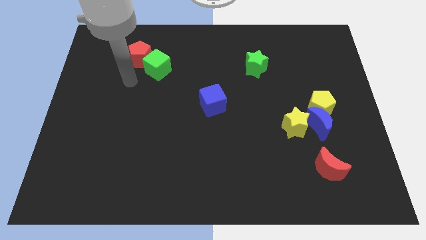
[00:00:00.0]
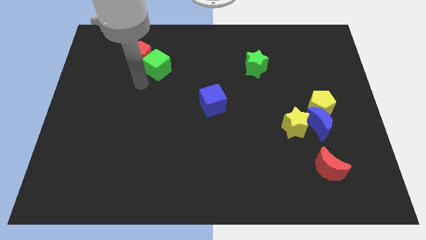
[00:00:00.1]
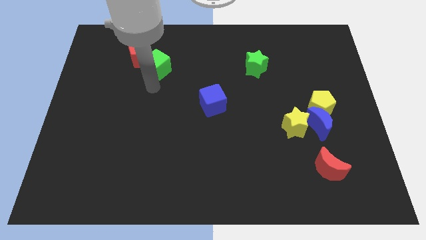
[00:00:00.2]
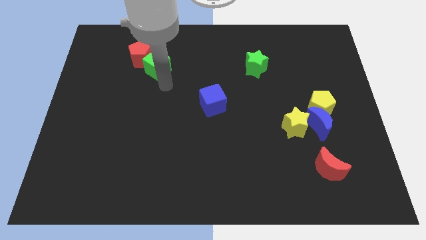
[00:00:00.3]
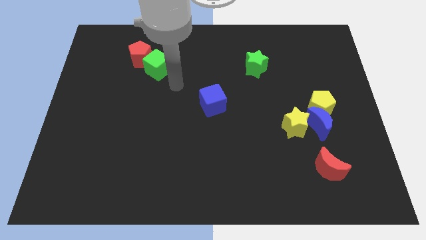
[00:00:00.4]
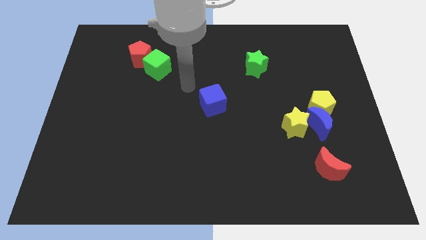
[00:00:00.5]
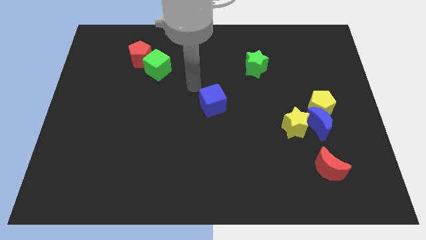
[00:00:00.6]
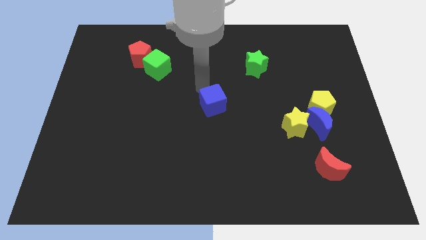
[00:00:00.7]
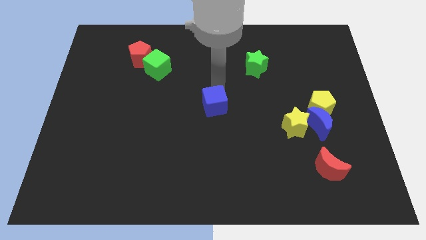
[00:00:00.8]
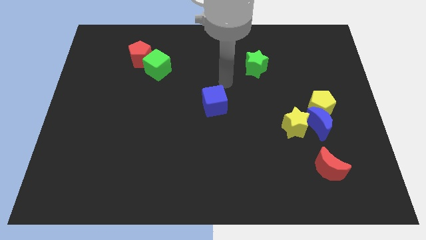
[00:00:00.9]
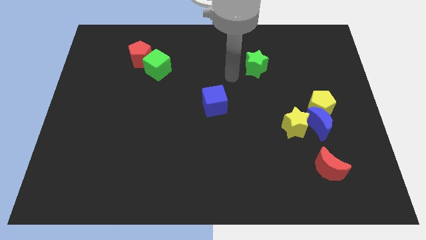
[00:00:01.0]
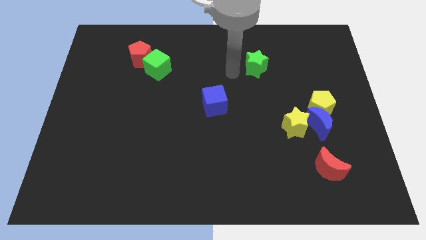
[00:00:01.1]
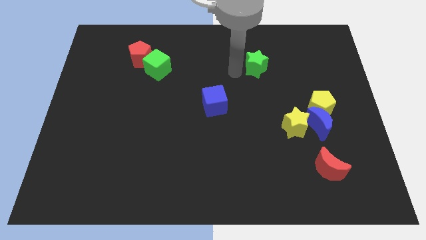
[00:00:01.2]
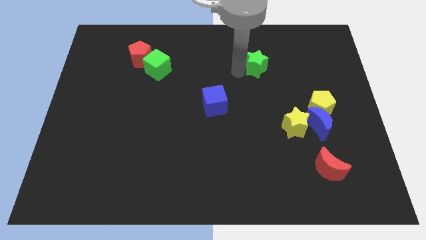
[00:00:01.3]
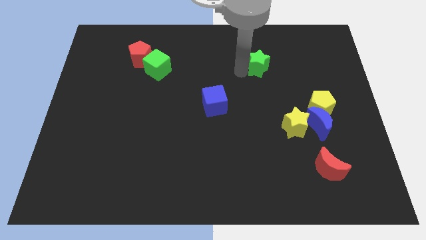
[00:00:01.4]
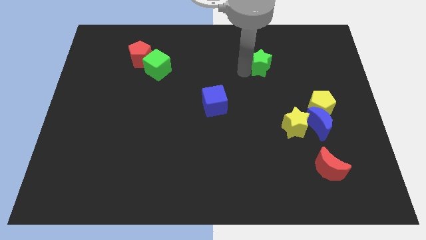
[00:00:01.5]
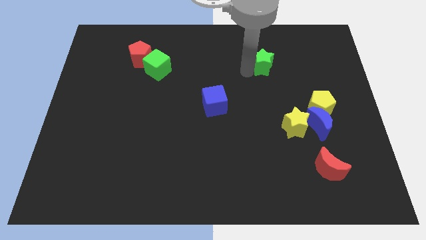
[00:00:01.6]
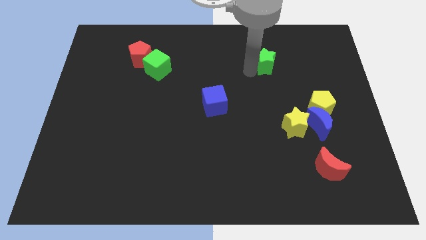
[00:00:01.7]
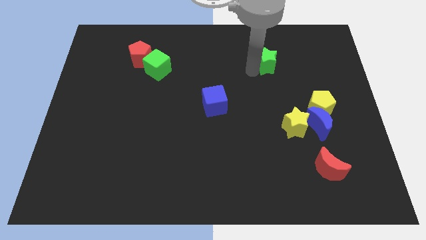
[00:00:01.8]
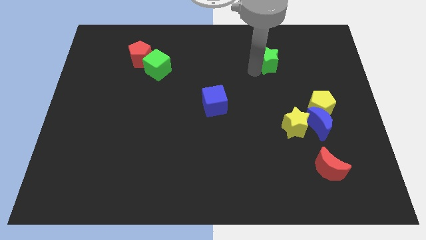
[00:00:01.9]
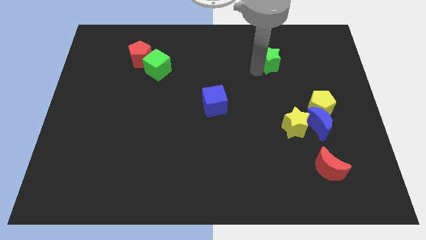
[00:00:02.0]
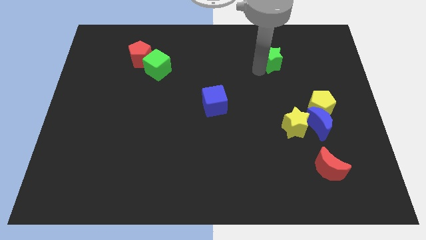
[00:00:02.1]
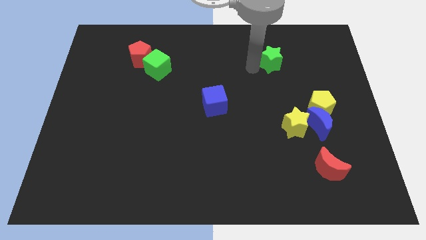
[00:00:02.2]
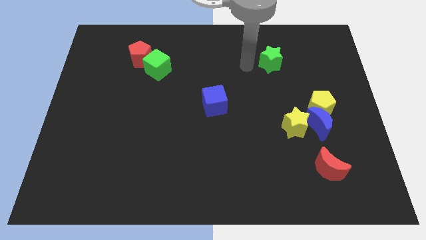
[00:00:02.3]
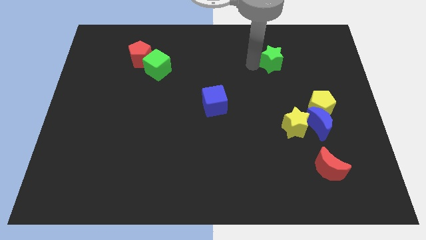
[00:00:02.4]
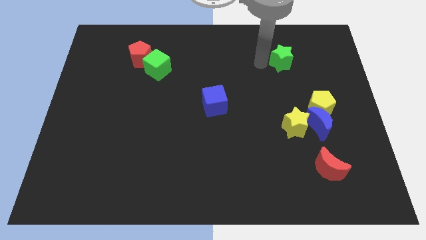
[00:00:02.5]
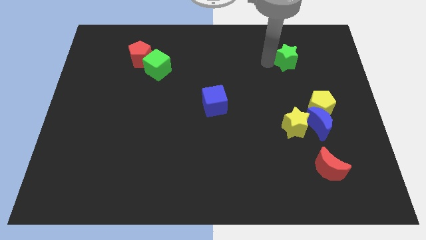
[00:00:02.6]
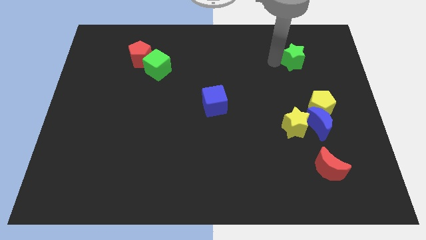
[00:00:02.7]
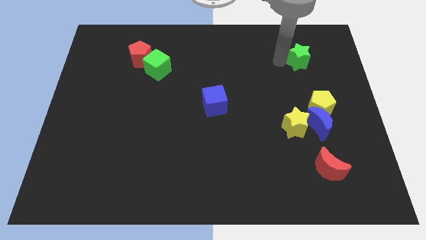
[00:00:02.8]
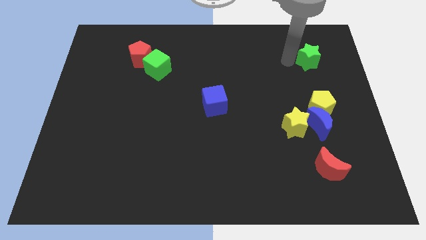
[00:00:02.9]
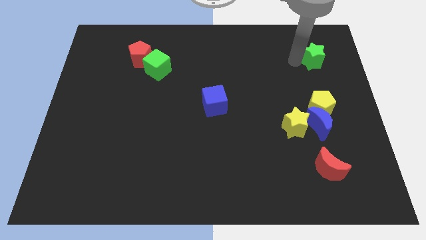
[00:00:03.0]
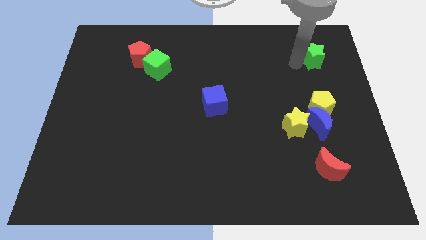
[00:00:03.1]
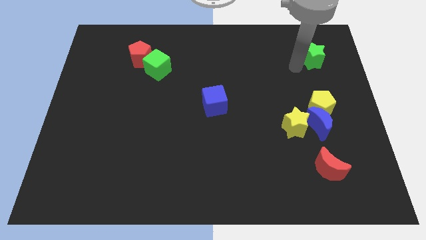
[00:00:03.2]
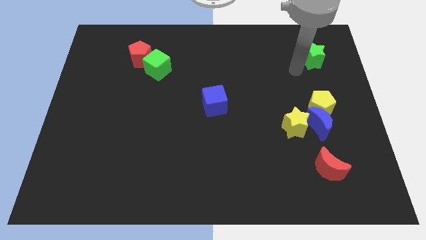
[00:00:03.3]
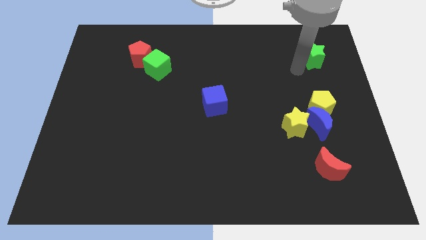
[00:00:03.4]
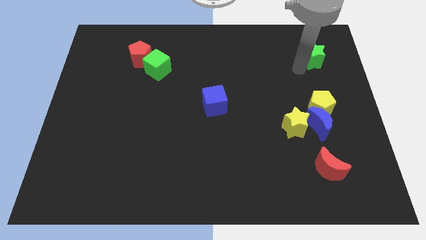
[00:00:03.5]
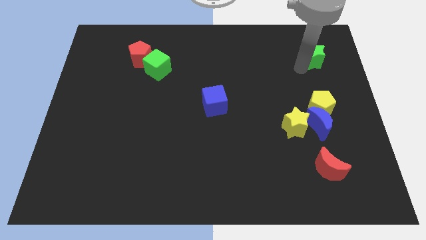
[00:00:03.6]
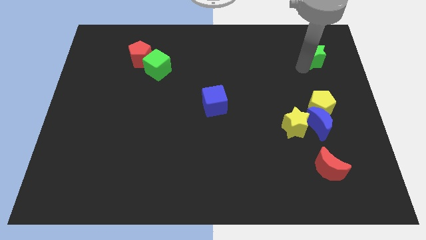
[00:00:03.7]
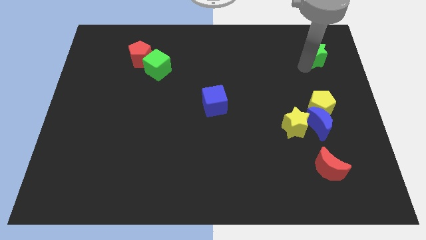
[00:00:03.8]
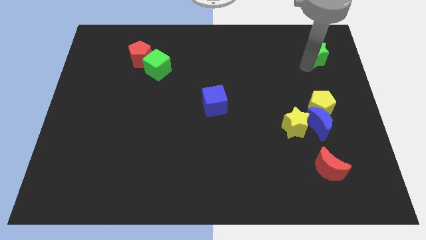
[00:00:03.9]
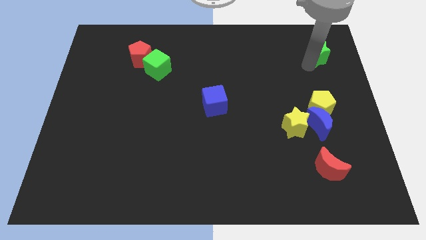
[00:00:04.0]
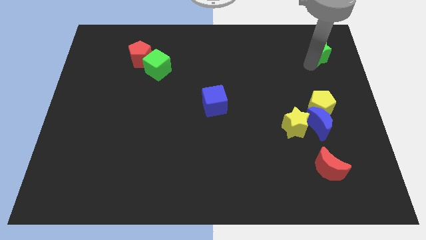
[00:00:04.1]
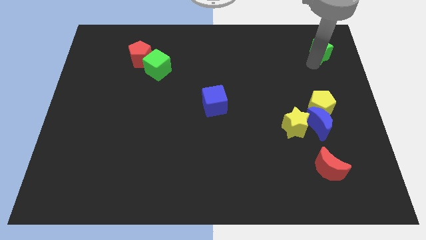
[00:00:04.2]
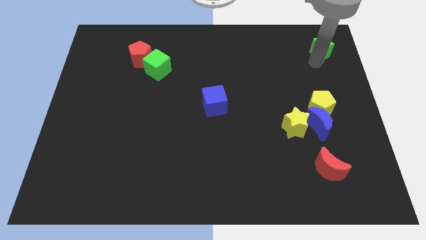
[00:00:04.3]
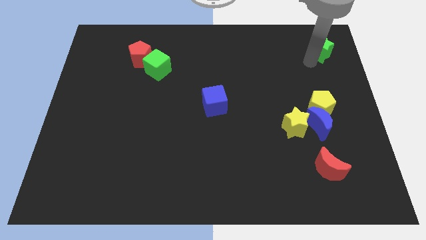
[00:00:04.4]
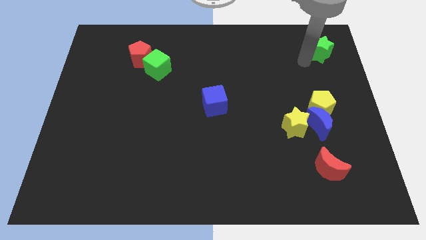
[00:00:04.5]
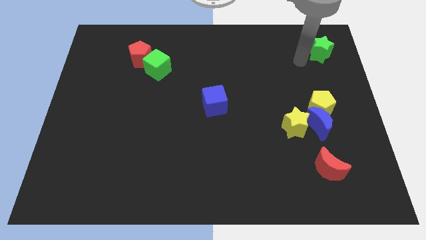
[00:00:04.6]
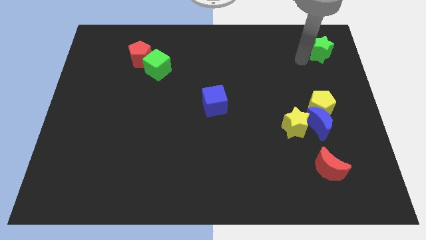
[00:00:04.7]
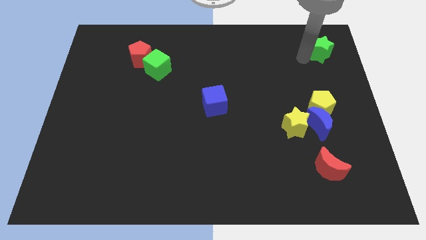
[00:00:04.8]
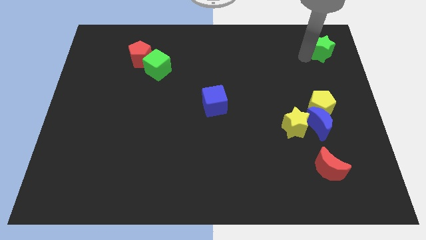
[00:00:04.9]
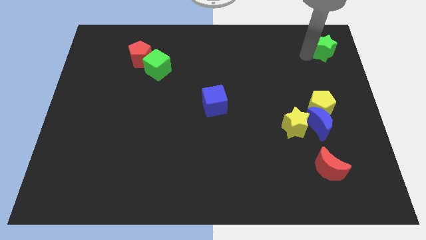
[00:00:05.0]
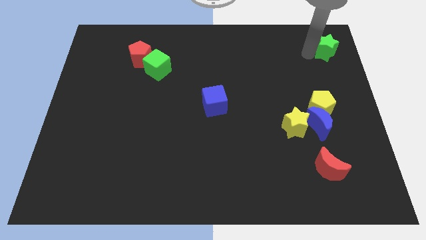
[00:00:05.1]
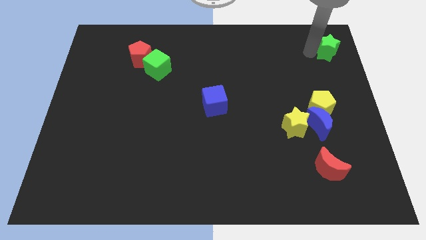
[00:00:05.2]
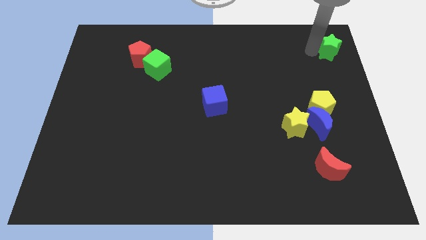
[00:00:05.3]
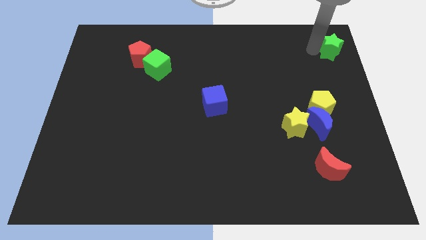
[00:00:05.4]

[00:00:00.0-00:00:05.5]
push the green star to the upper right corner
